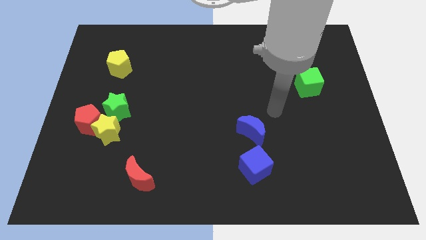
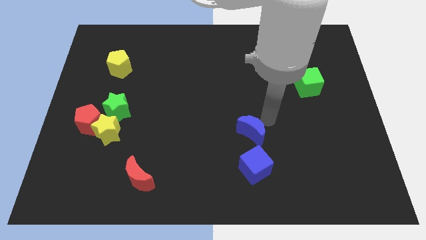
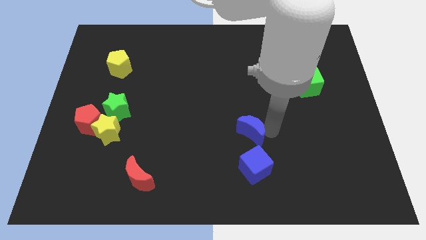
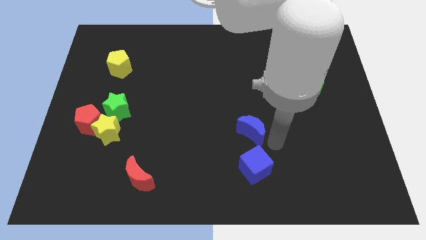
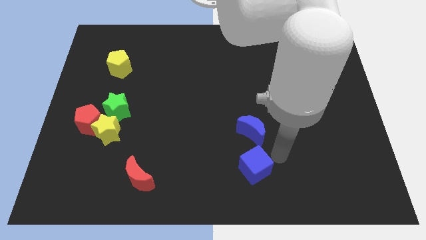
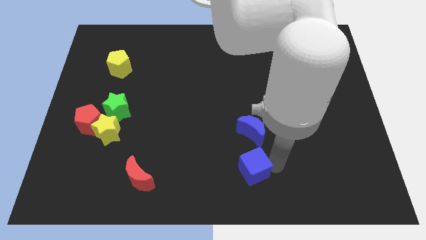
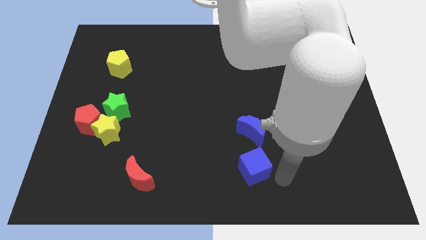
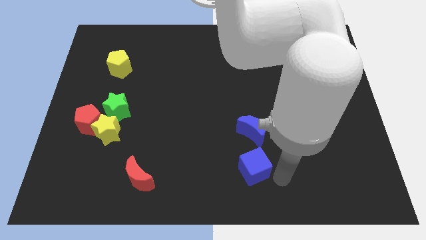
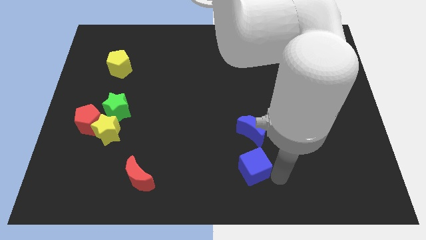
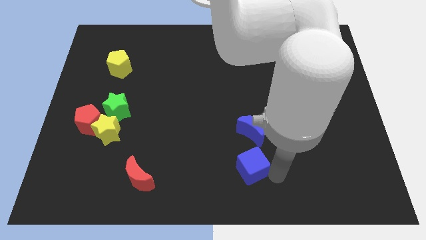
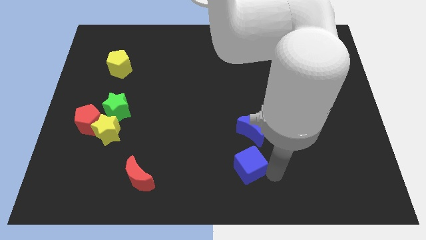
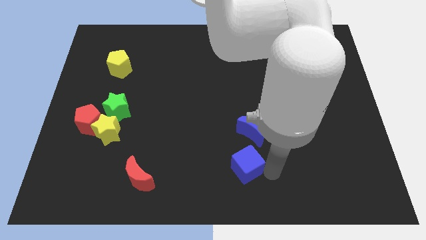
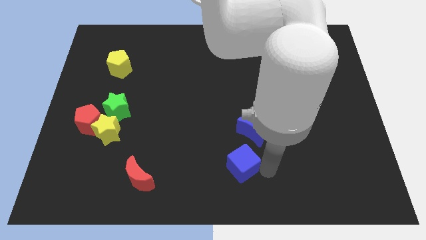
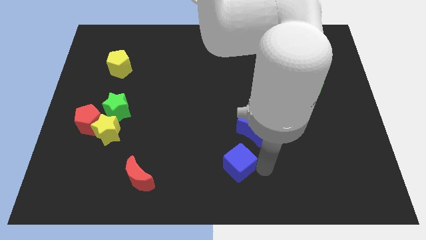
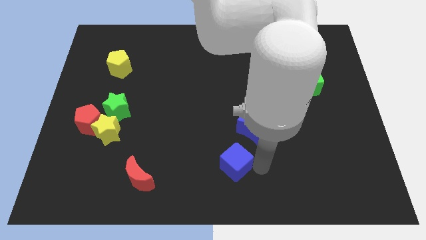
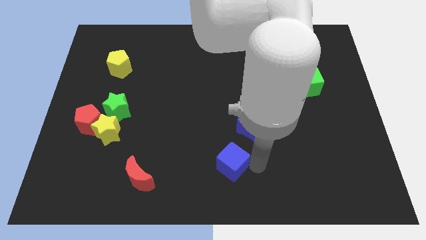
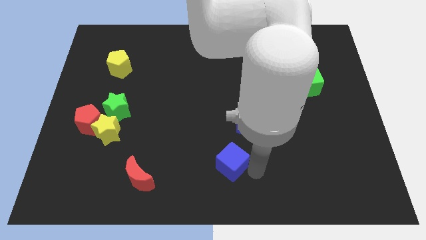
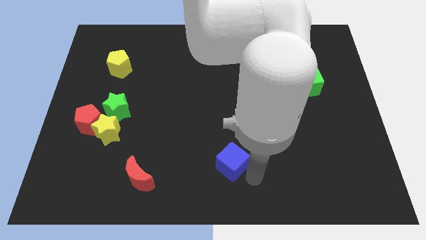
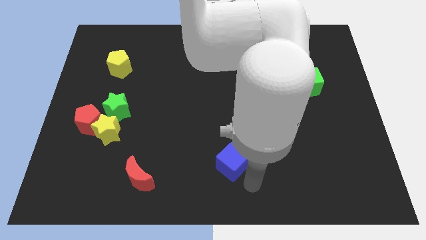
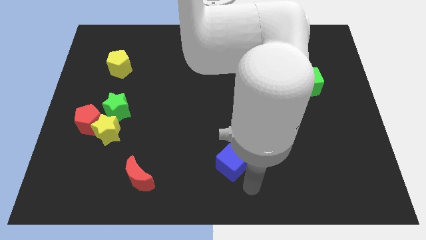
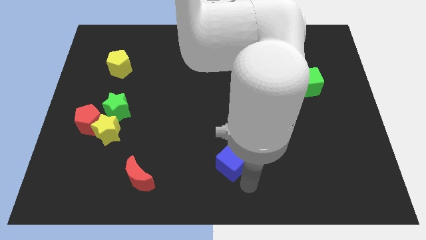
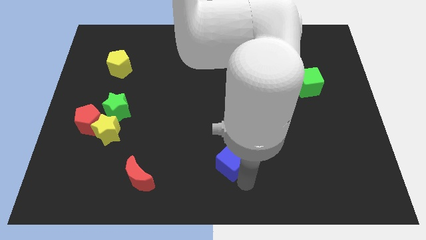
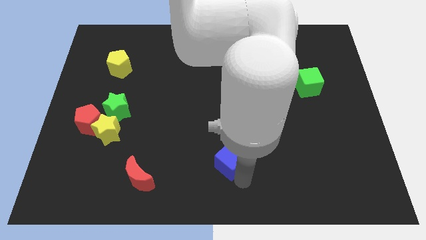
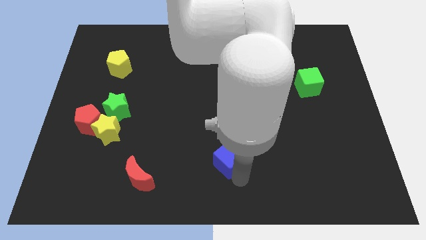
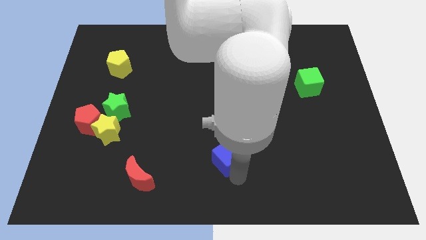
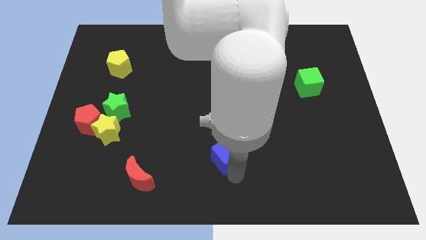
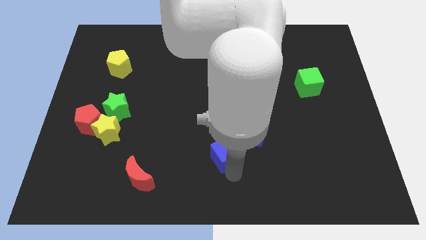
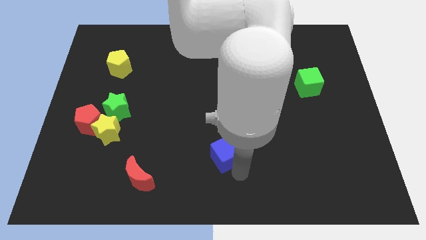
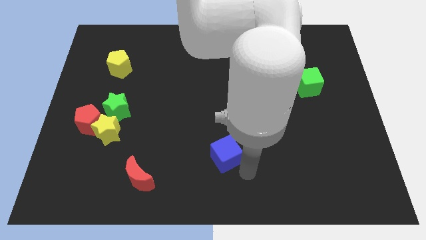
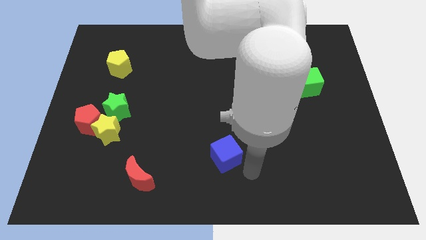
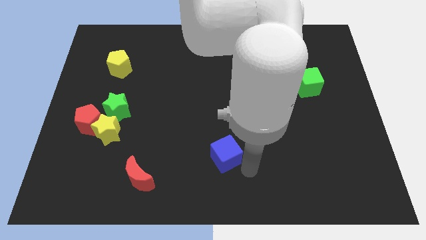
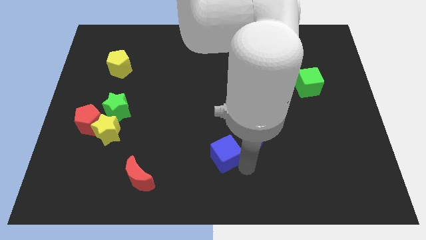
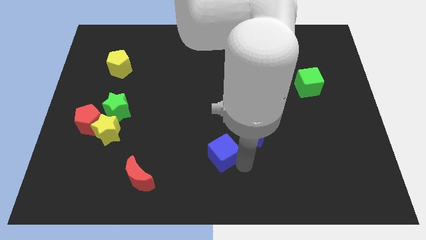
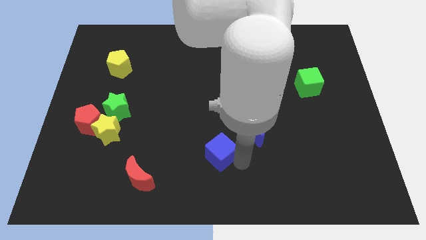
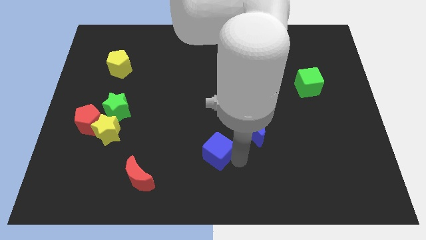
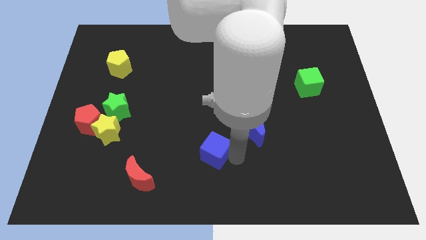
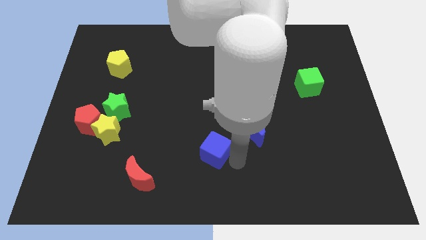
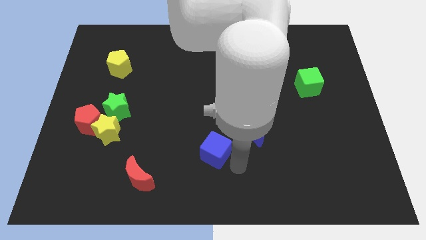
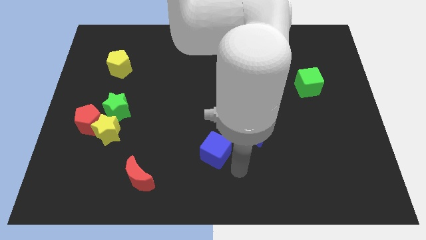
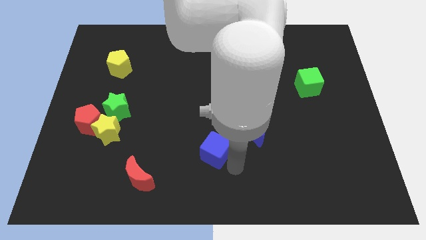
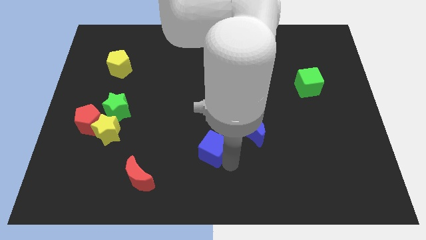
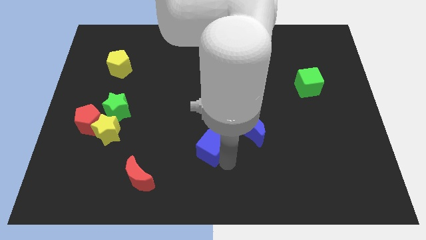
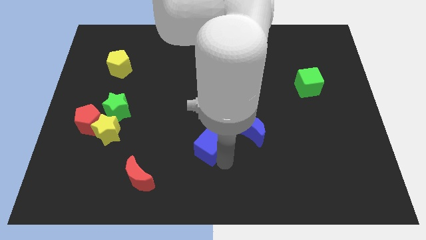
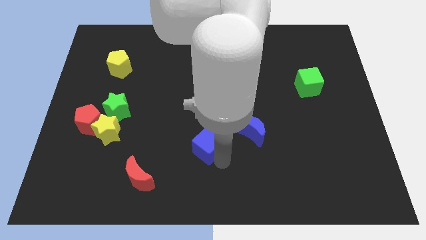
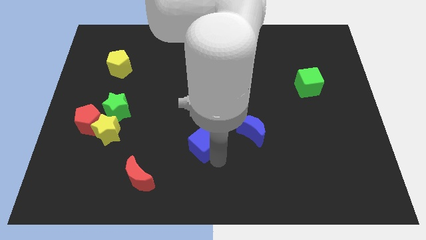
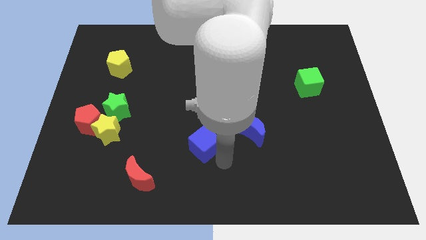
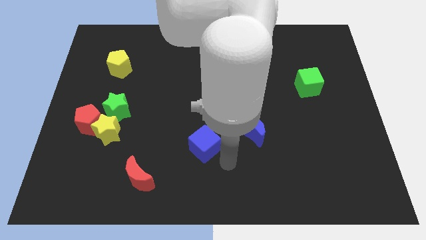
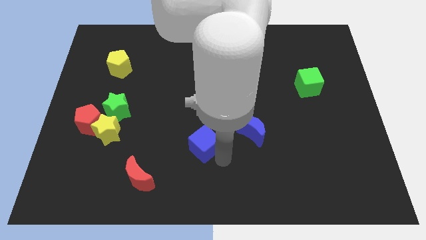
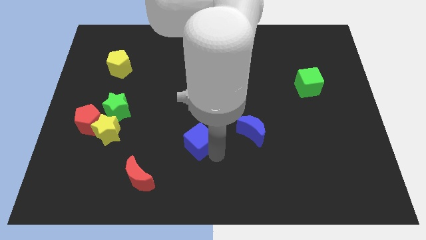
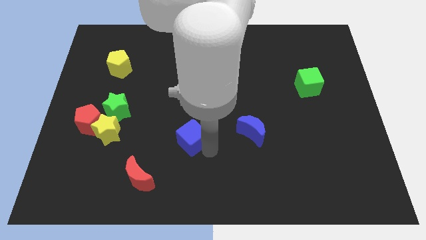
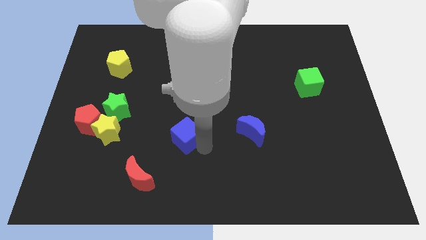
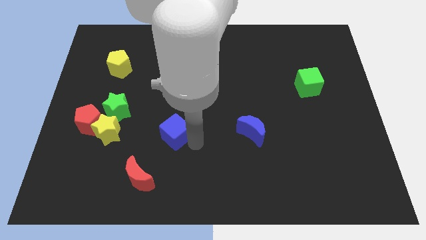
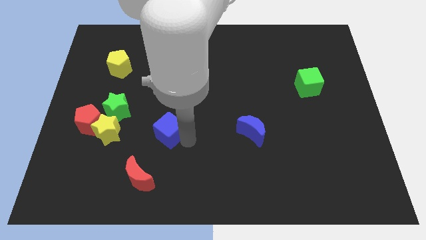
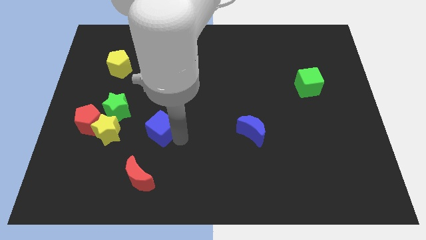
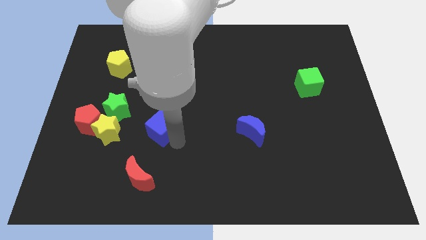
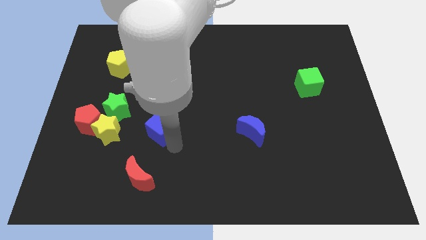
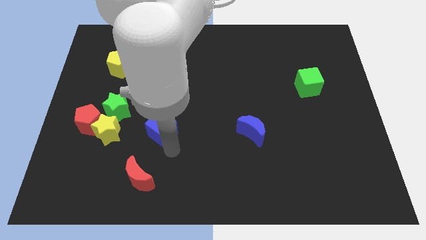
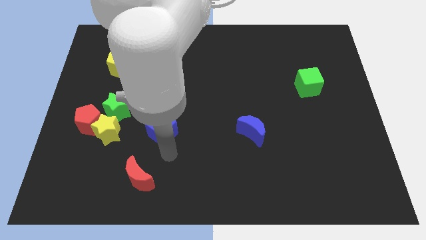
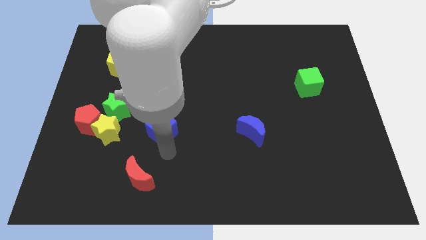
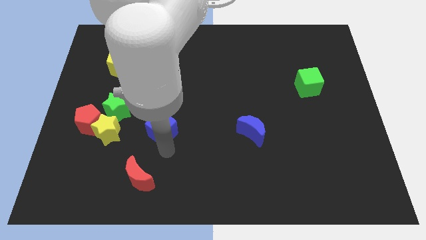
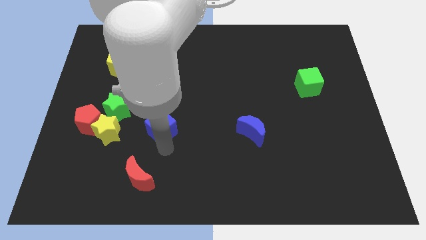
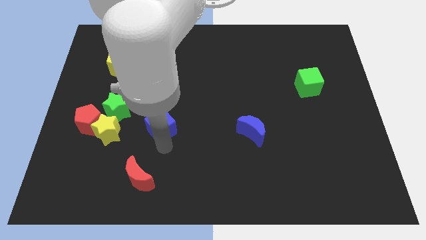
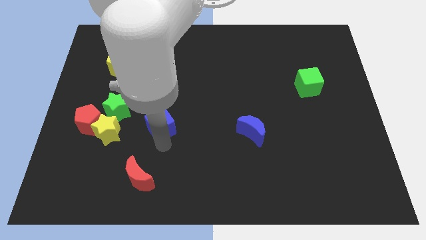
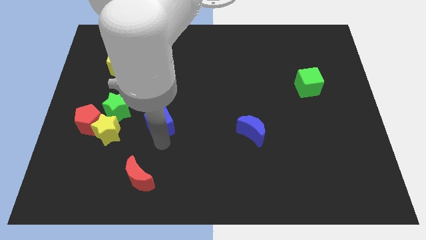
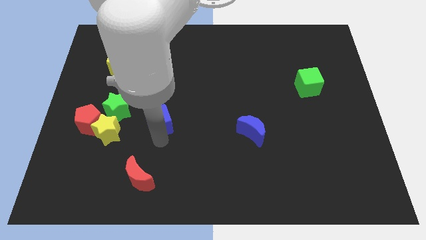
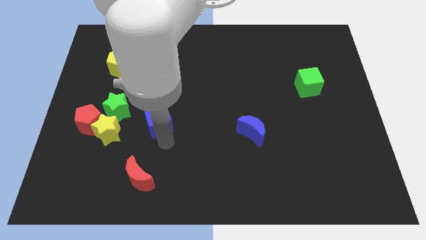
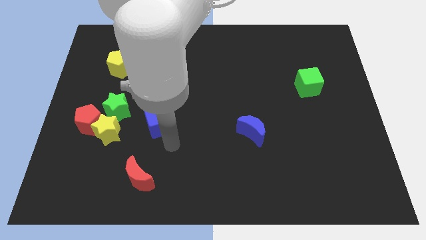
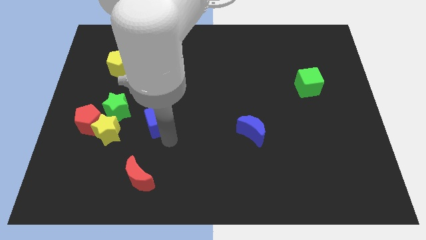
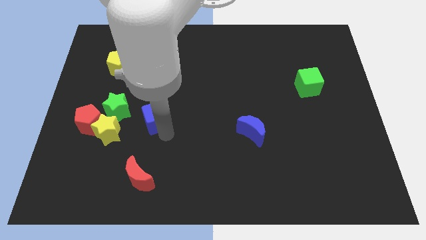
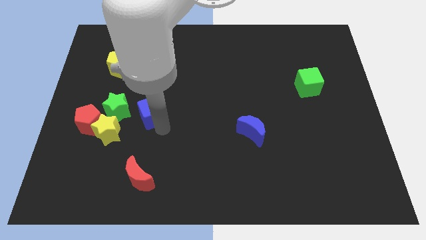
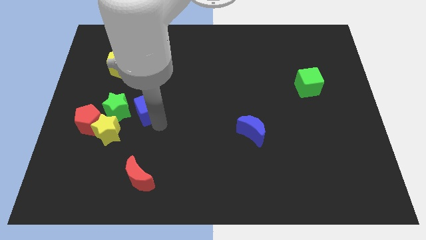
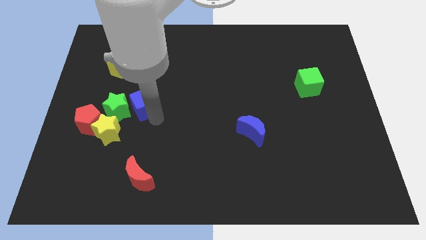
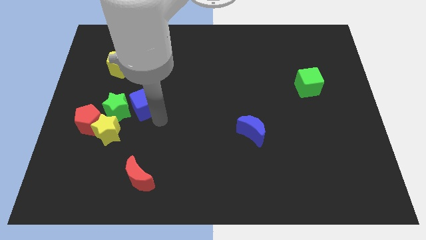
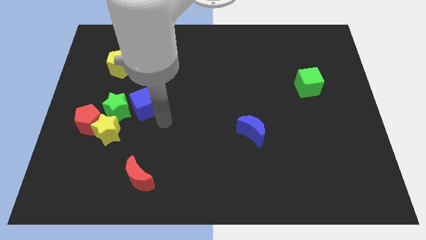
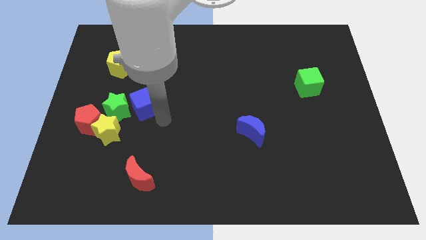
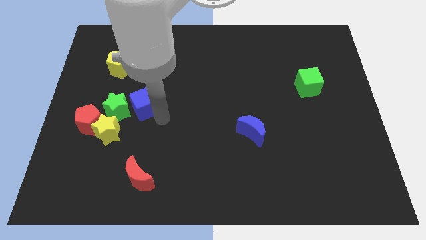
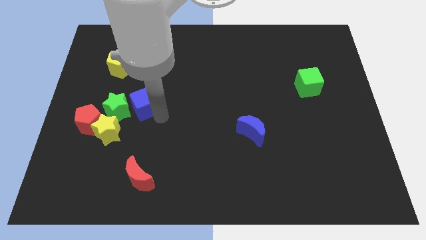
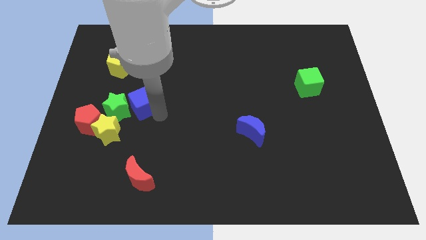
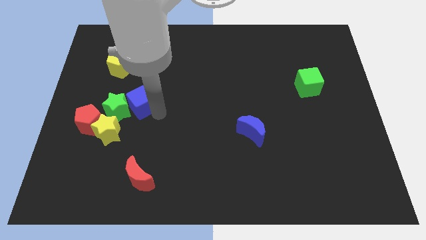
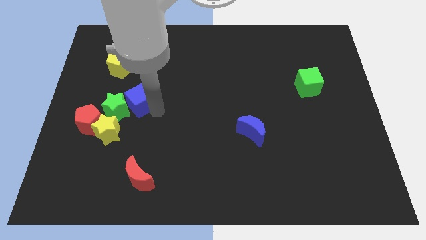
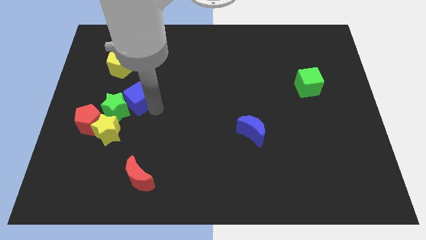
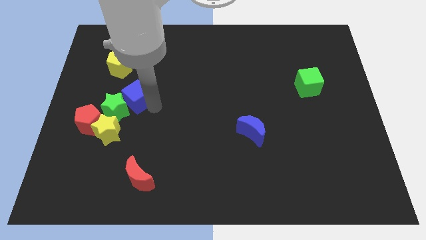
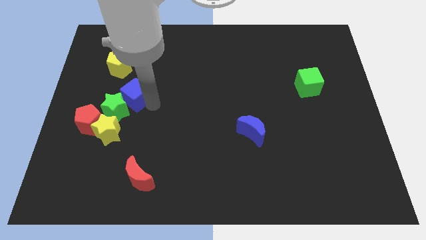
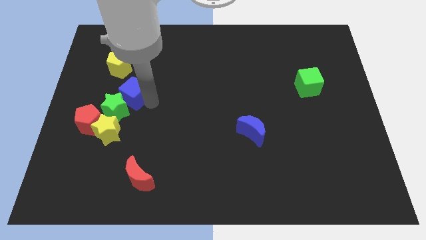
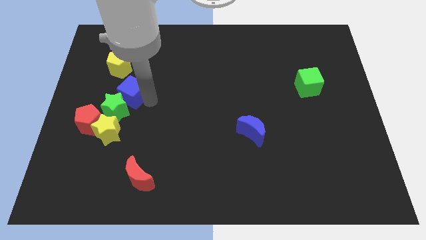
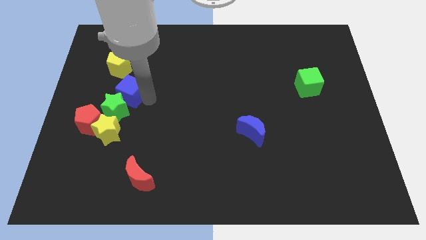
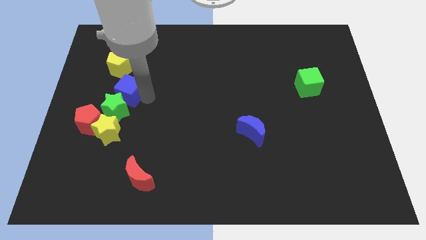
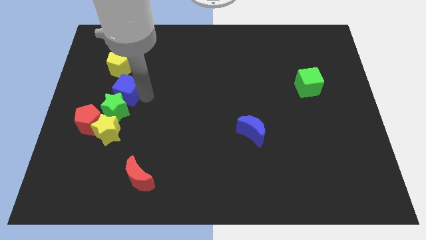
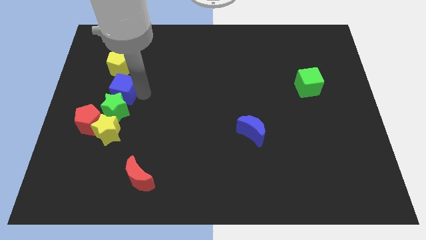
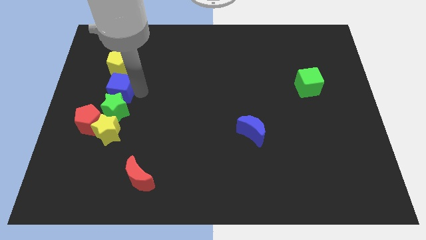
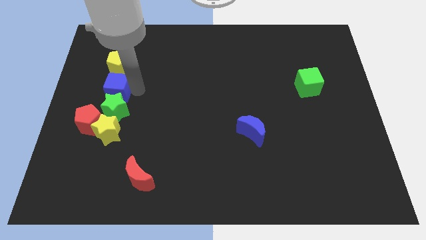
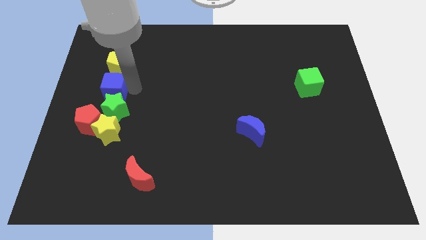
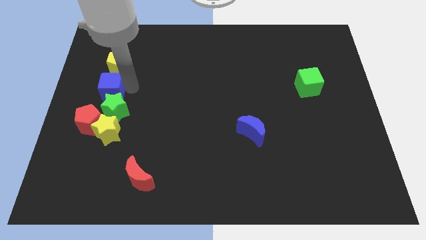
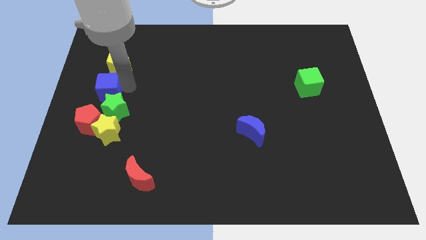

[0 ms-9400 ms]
put the blue cube to the center left
